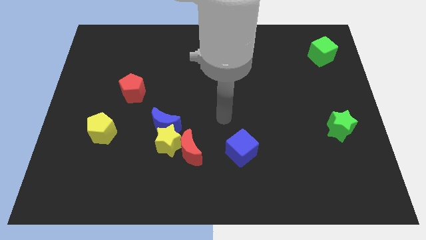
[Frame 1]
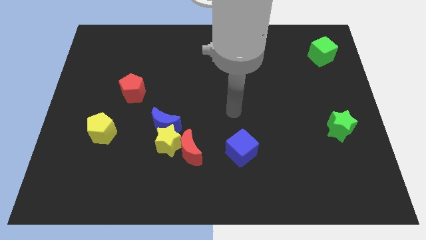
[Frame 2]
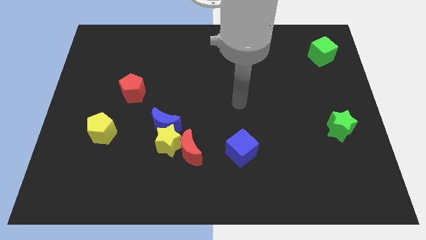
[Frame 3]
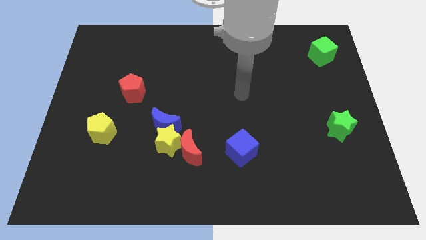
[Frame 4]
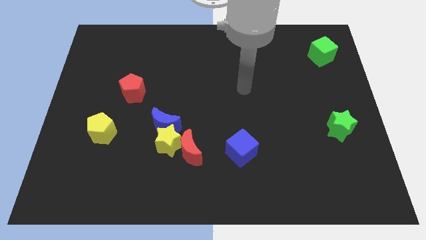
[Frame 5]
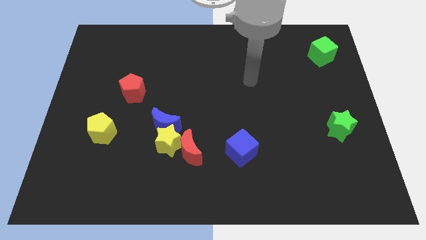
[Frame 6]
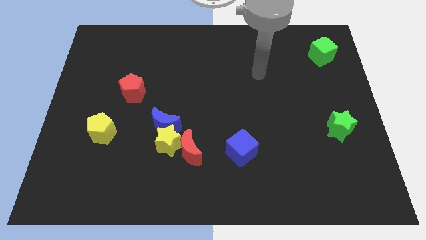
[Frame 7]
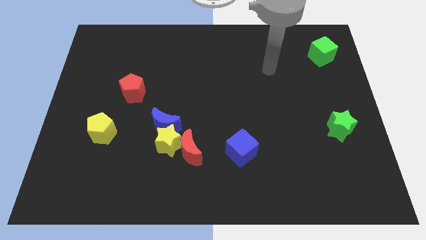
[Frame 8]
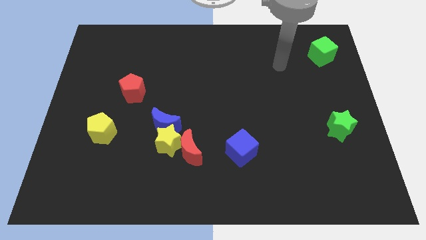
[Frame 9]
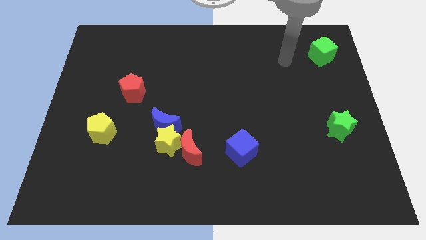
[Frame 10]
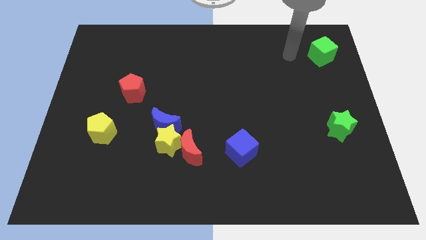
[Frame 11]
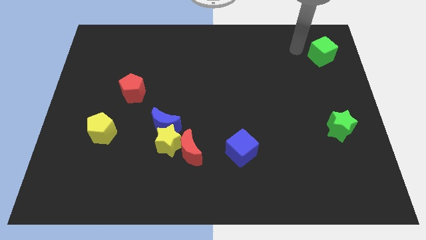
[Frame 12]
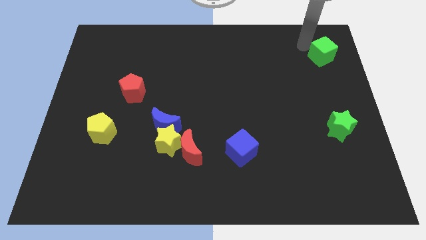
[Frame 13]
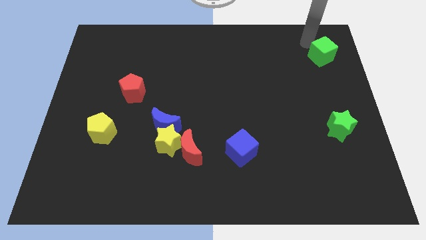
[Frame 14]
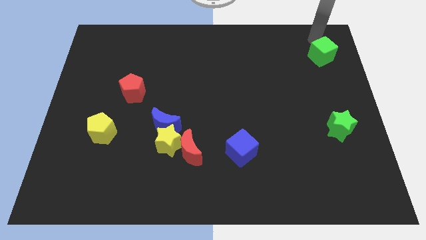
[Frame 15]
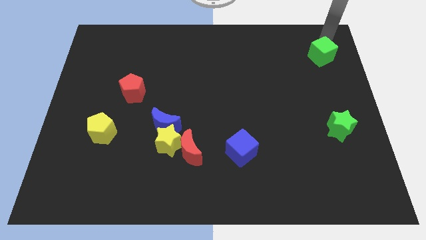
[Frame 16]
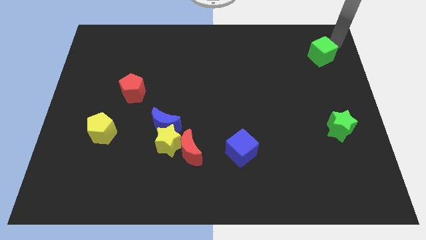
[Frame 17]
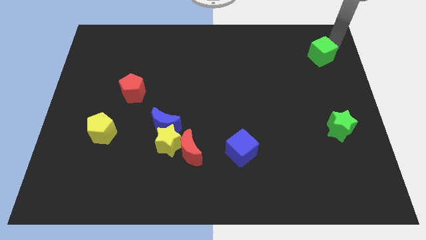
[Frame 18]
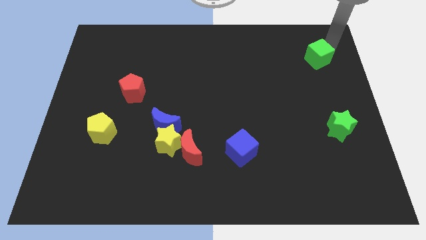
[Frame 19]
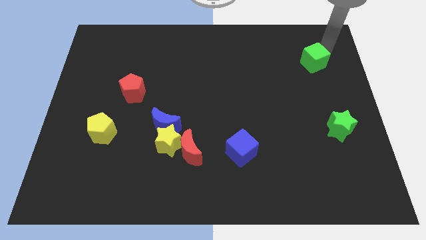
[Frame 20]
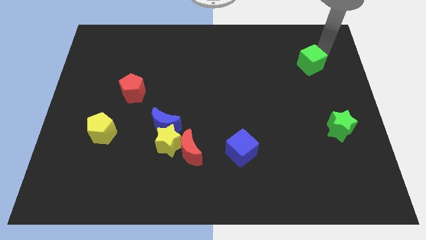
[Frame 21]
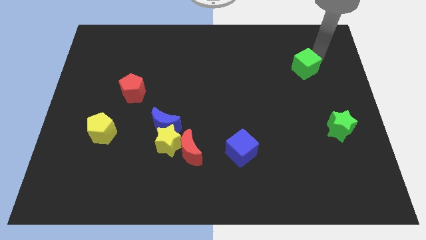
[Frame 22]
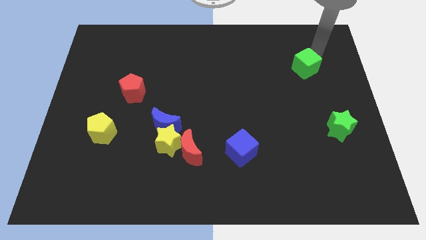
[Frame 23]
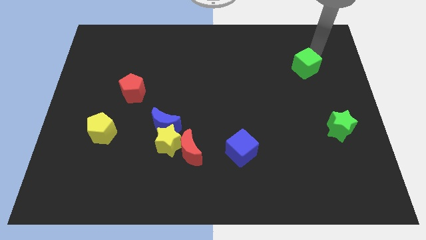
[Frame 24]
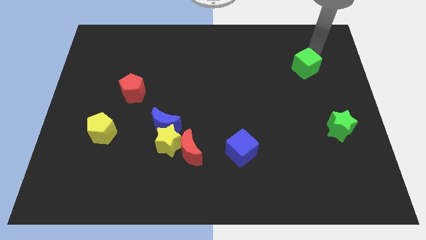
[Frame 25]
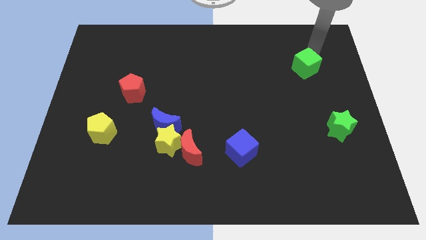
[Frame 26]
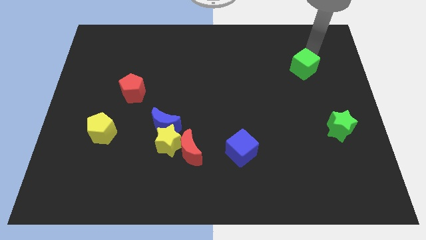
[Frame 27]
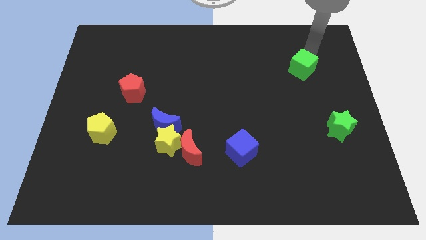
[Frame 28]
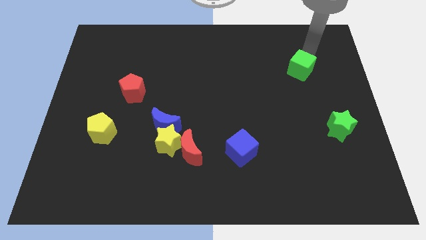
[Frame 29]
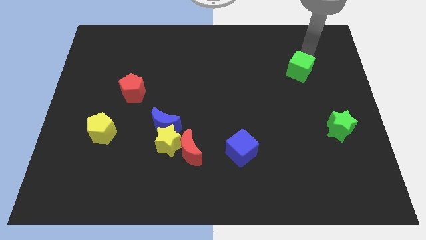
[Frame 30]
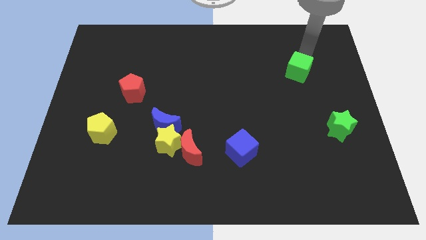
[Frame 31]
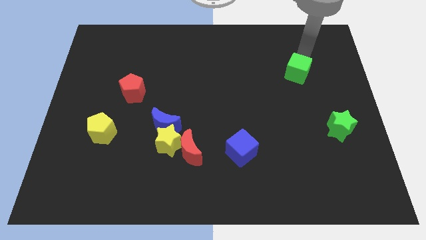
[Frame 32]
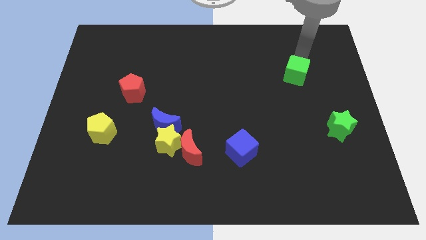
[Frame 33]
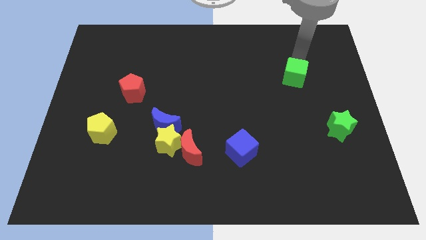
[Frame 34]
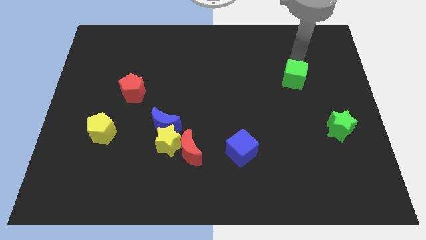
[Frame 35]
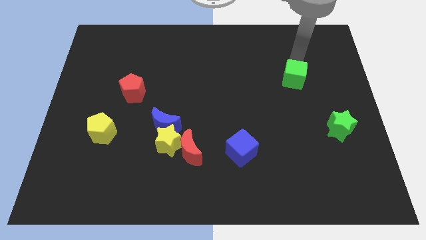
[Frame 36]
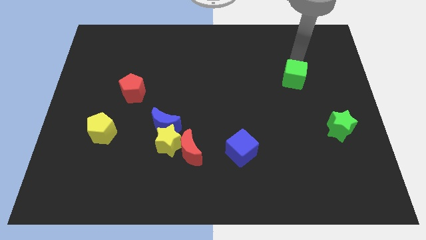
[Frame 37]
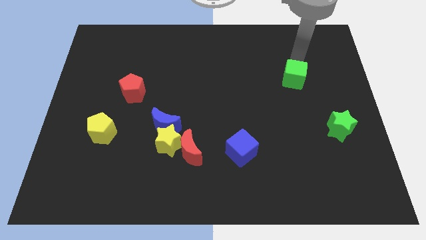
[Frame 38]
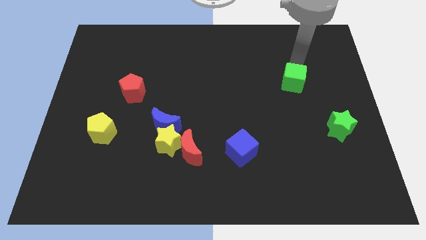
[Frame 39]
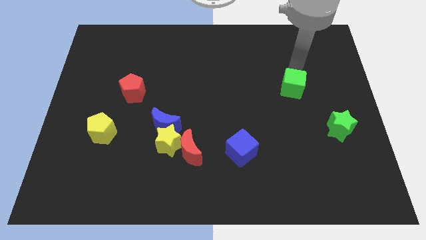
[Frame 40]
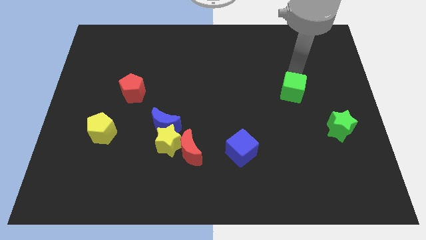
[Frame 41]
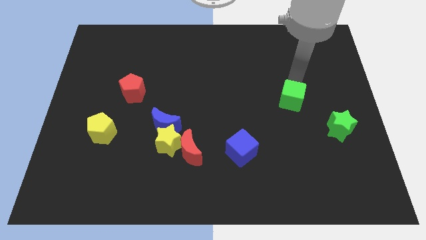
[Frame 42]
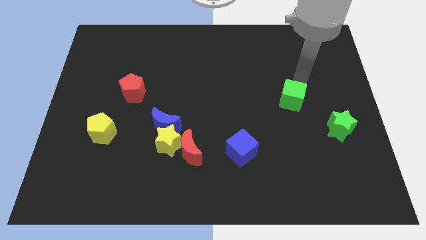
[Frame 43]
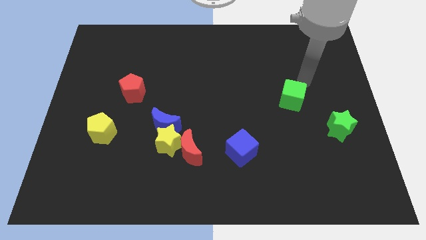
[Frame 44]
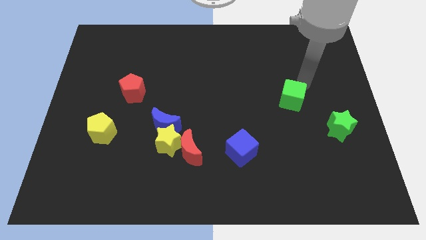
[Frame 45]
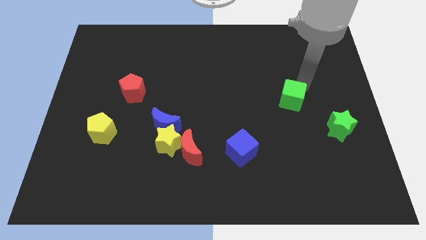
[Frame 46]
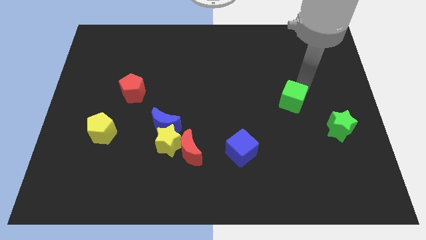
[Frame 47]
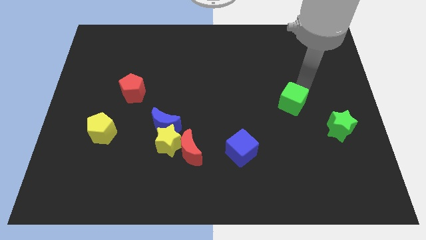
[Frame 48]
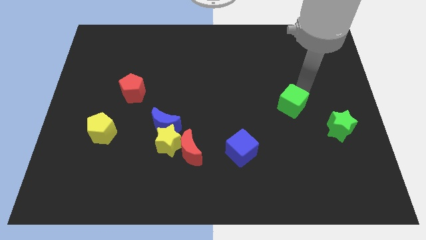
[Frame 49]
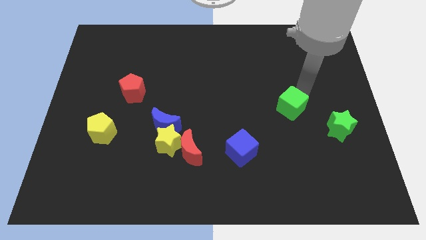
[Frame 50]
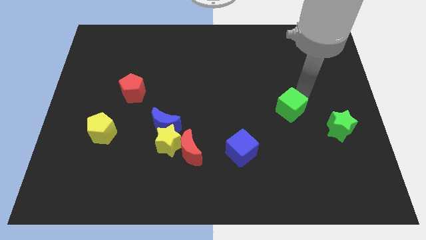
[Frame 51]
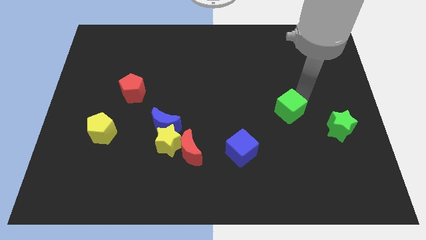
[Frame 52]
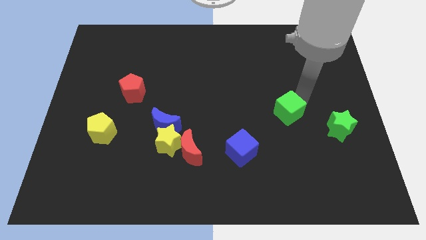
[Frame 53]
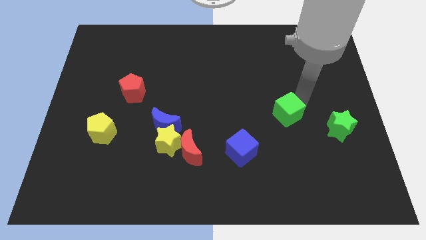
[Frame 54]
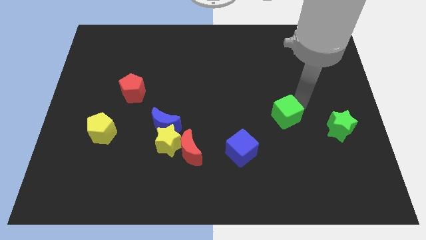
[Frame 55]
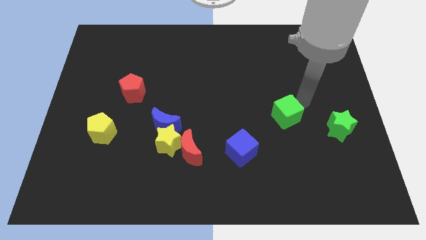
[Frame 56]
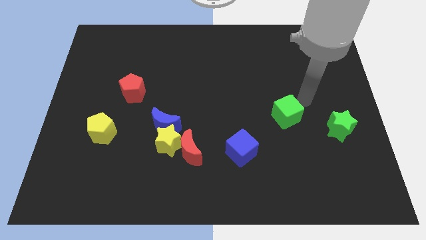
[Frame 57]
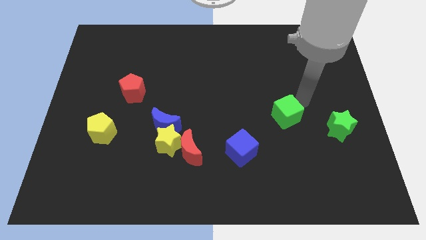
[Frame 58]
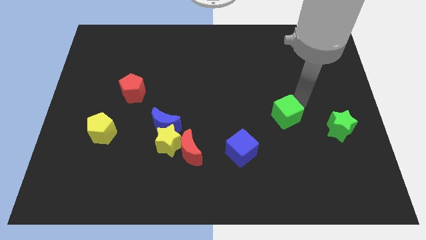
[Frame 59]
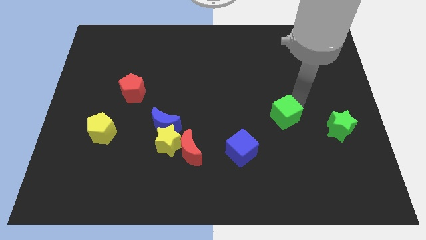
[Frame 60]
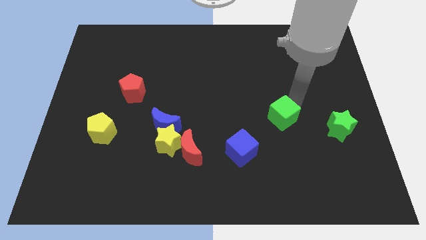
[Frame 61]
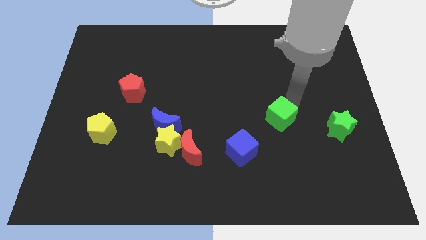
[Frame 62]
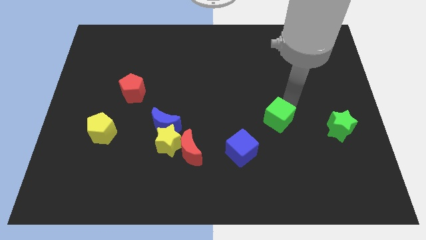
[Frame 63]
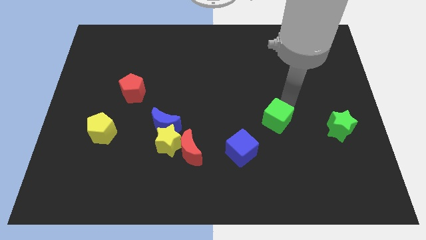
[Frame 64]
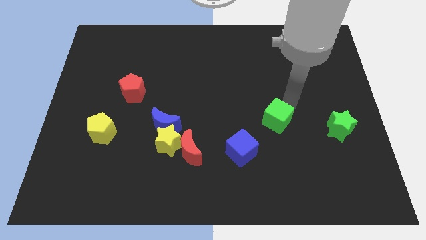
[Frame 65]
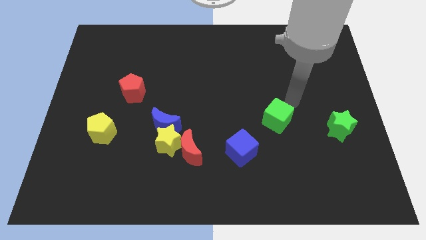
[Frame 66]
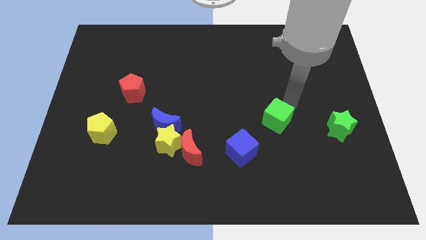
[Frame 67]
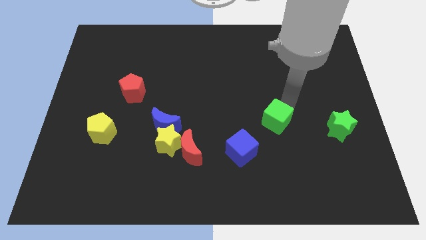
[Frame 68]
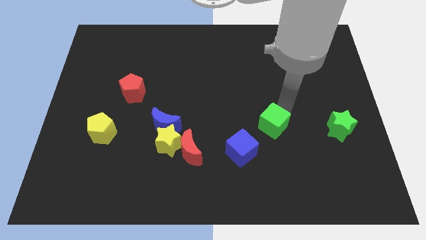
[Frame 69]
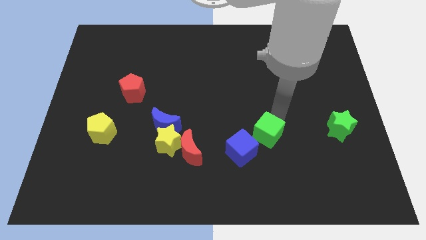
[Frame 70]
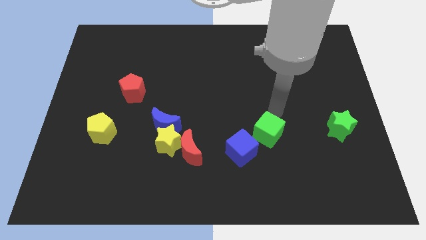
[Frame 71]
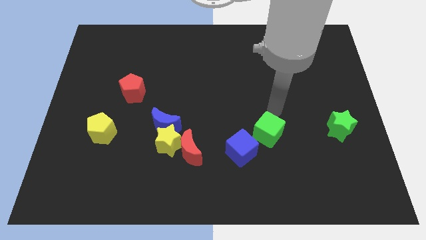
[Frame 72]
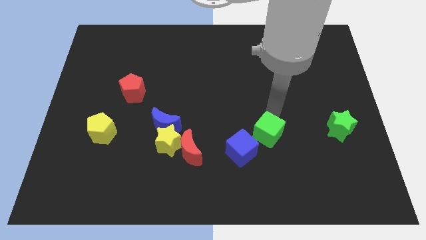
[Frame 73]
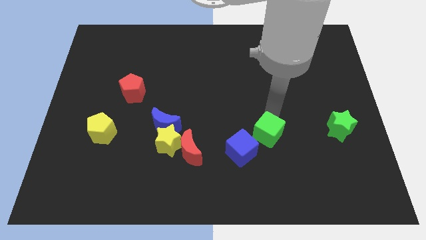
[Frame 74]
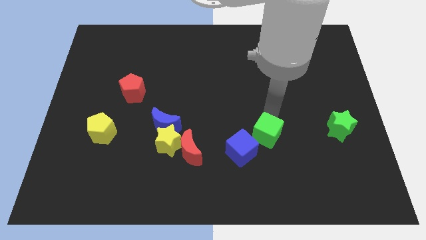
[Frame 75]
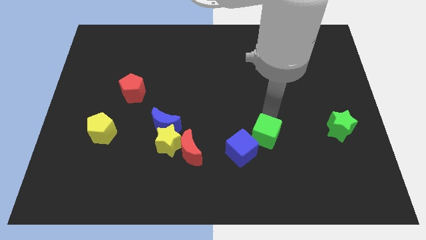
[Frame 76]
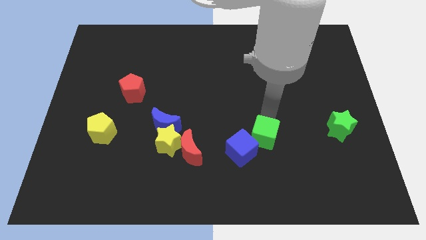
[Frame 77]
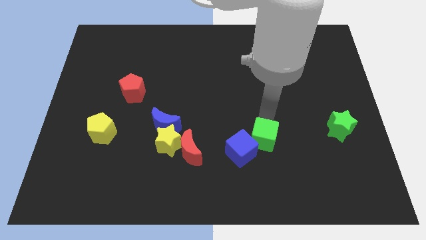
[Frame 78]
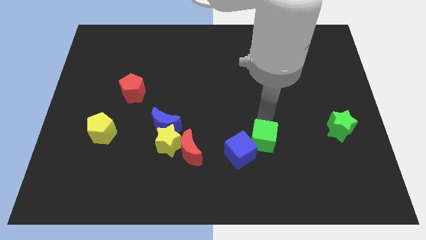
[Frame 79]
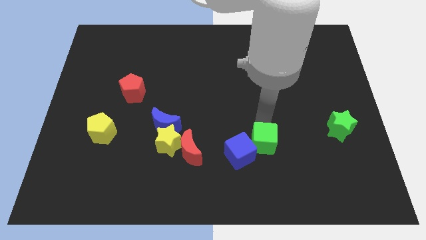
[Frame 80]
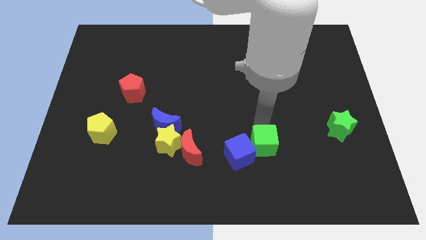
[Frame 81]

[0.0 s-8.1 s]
move the green cube right of the red moon
